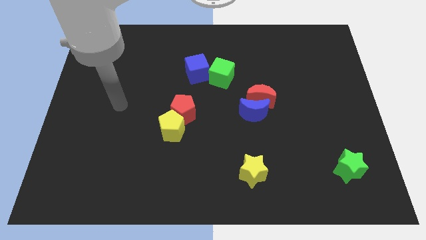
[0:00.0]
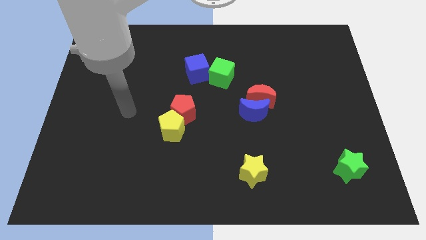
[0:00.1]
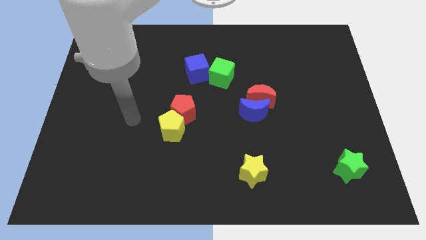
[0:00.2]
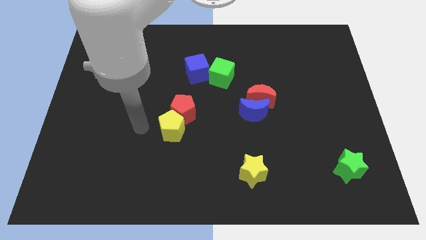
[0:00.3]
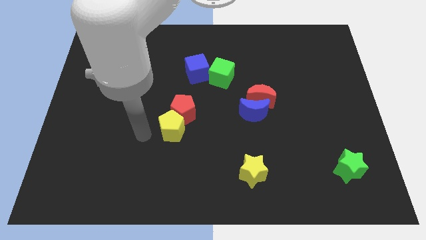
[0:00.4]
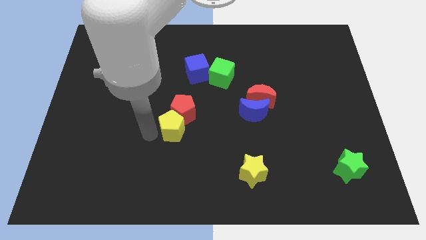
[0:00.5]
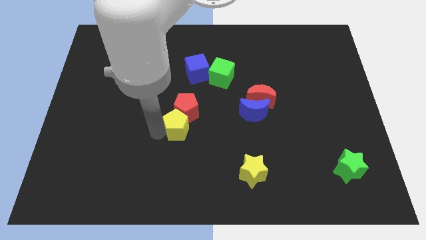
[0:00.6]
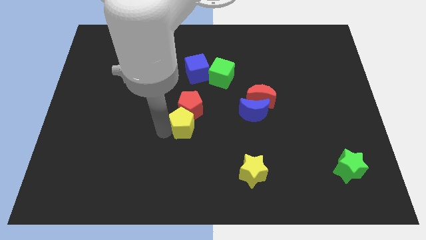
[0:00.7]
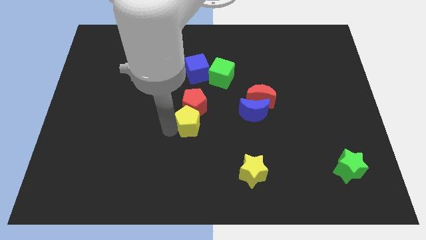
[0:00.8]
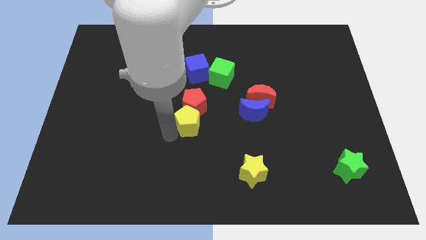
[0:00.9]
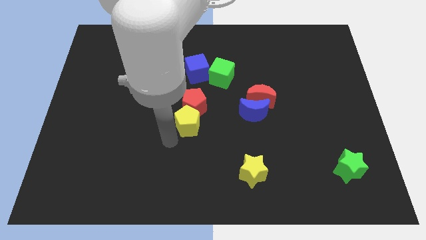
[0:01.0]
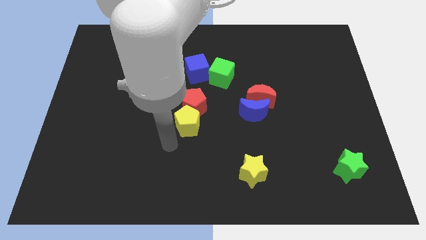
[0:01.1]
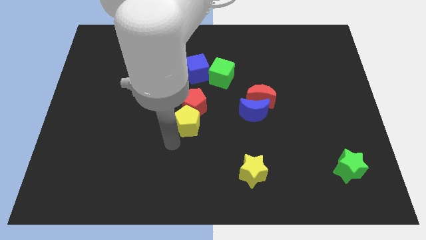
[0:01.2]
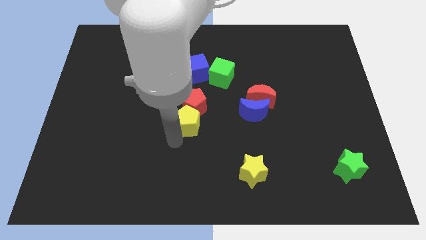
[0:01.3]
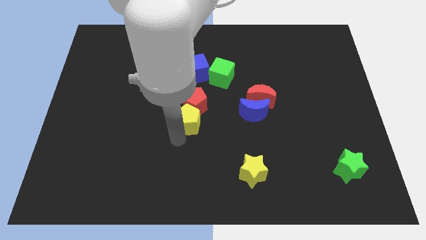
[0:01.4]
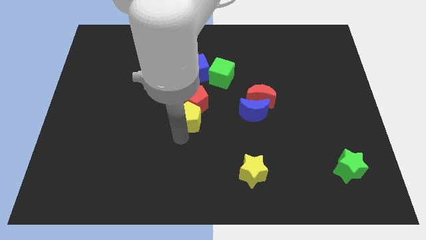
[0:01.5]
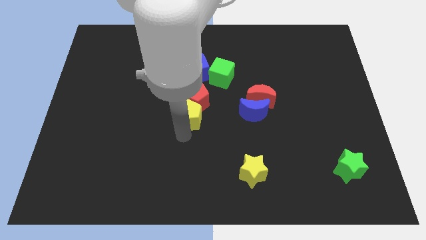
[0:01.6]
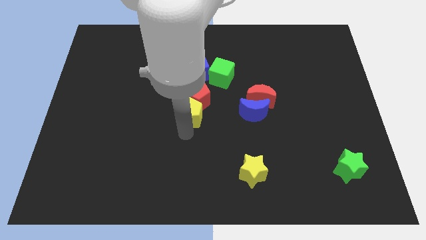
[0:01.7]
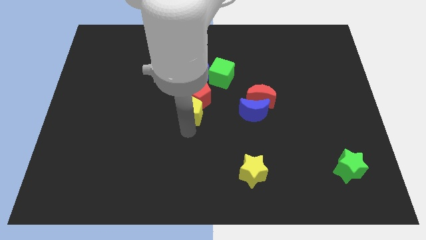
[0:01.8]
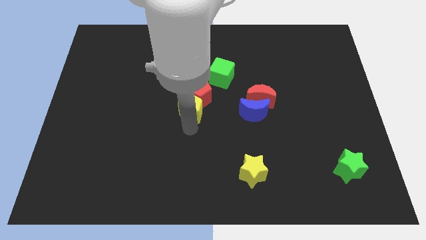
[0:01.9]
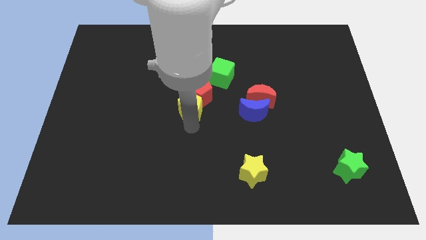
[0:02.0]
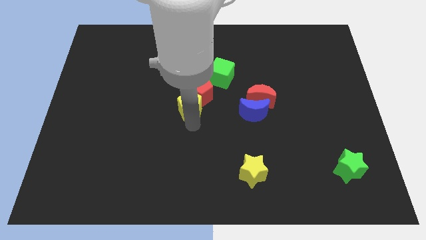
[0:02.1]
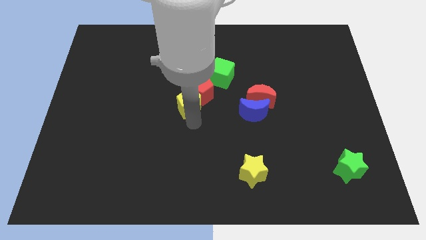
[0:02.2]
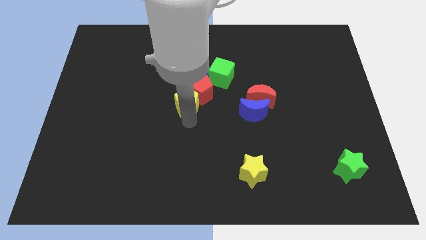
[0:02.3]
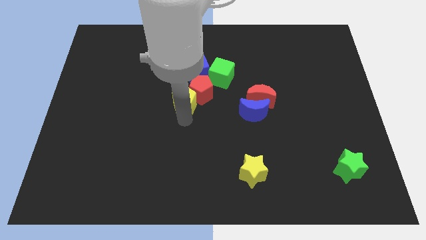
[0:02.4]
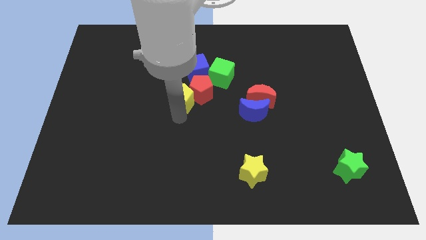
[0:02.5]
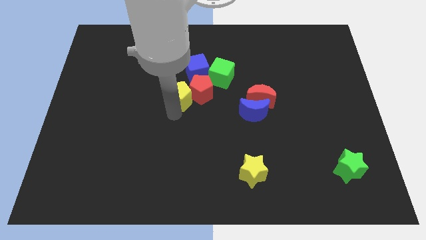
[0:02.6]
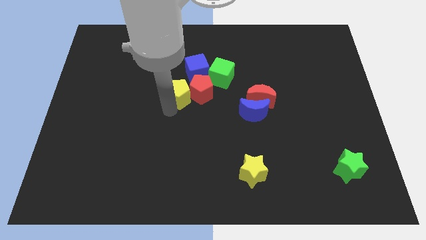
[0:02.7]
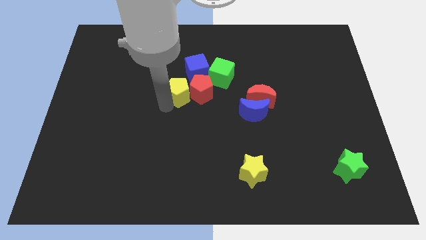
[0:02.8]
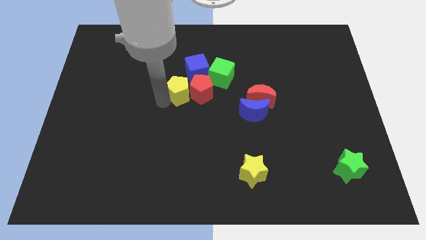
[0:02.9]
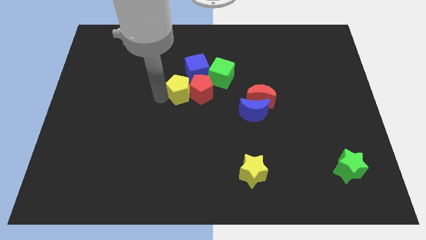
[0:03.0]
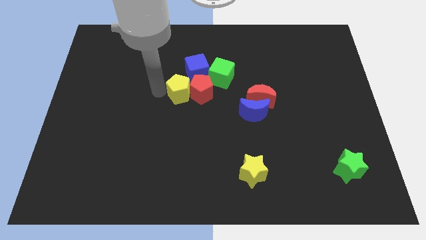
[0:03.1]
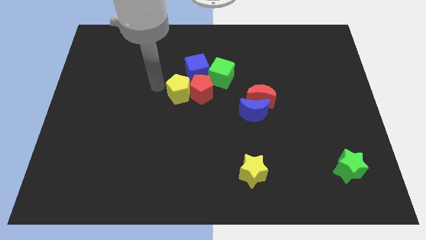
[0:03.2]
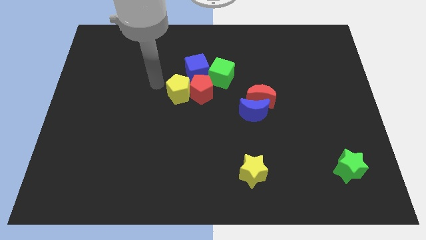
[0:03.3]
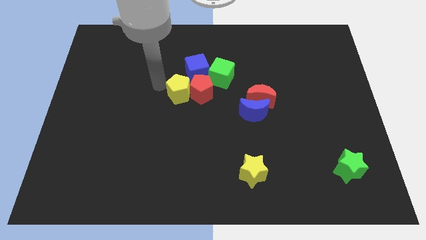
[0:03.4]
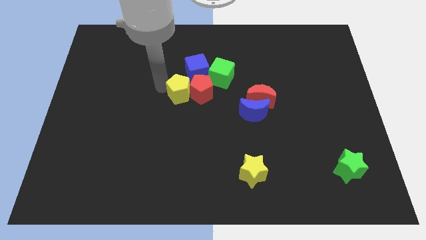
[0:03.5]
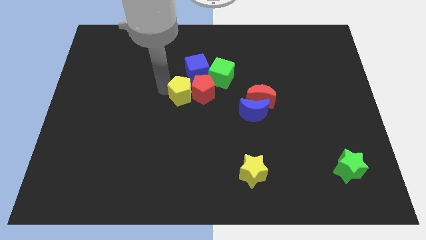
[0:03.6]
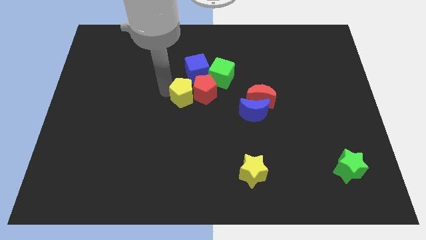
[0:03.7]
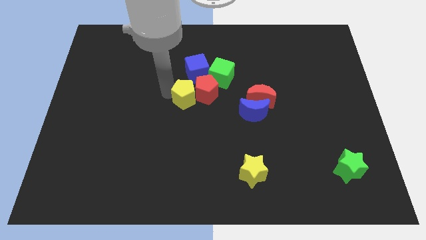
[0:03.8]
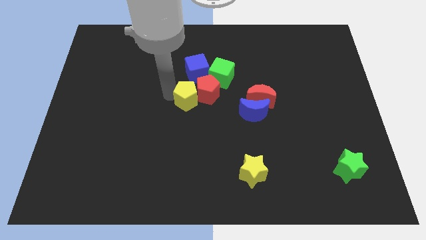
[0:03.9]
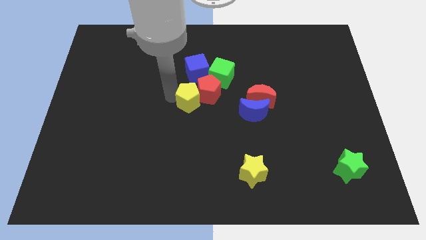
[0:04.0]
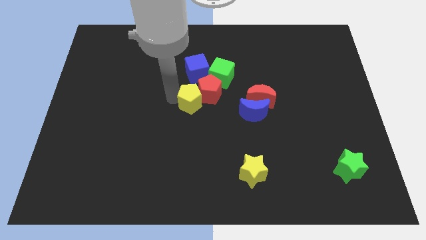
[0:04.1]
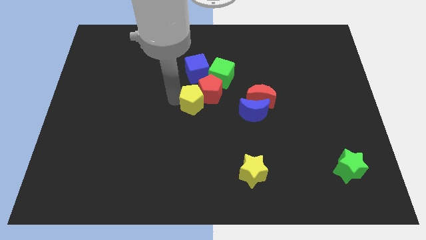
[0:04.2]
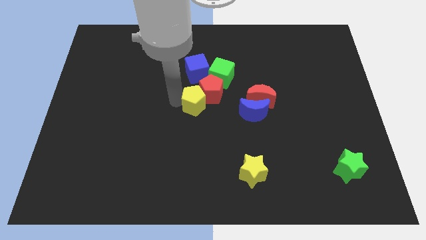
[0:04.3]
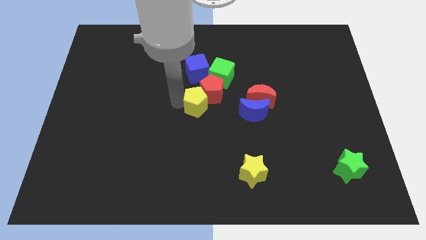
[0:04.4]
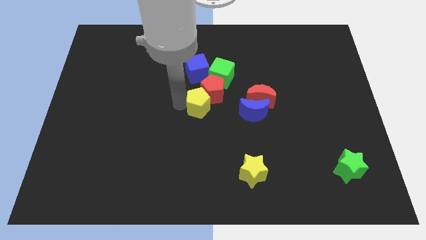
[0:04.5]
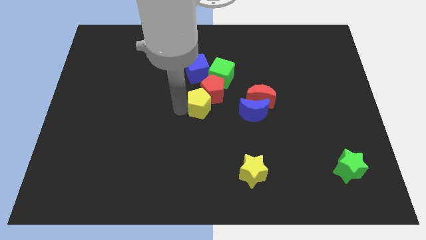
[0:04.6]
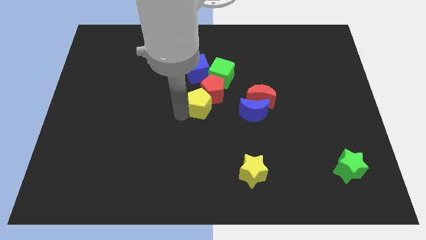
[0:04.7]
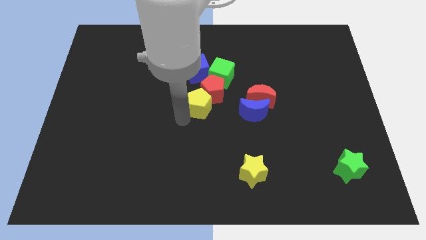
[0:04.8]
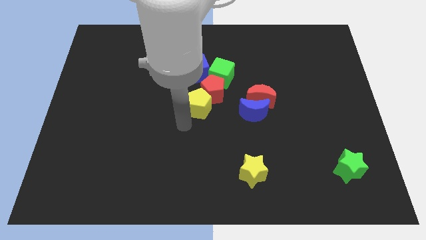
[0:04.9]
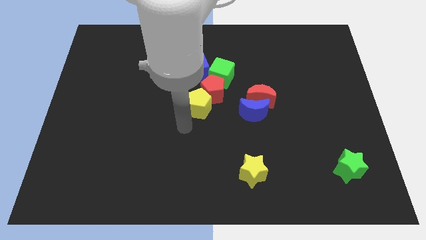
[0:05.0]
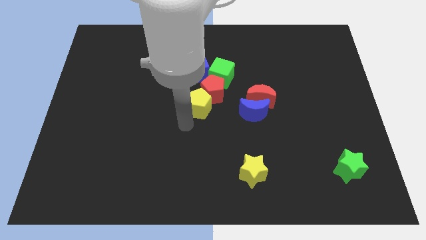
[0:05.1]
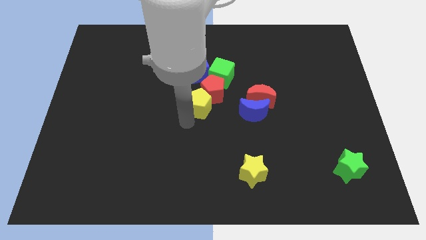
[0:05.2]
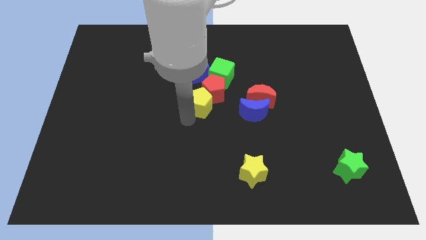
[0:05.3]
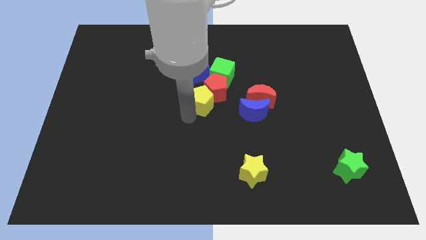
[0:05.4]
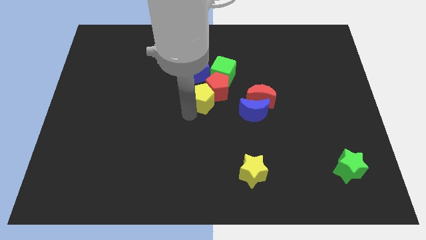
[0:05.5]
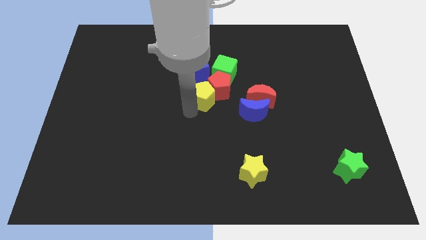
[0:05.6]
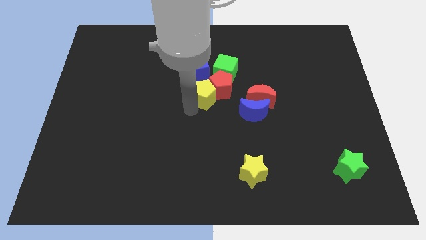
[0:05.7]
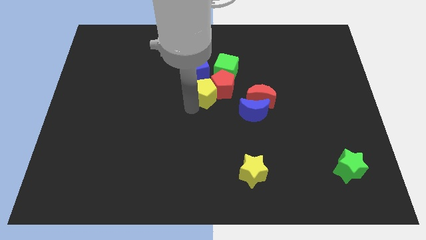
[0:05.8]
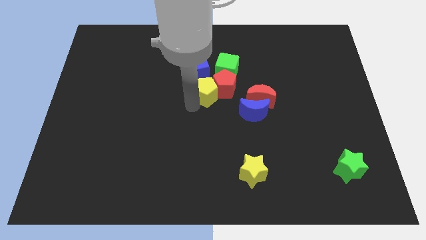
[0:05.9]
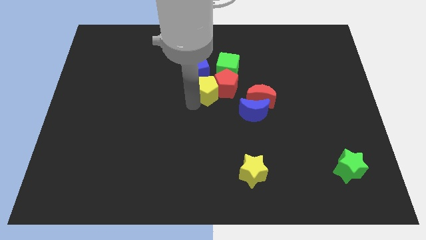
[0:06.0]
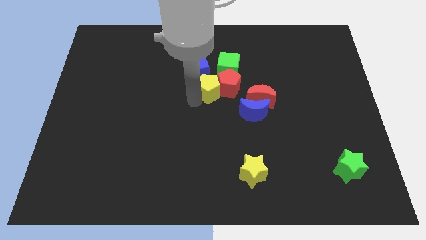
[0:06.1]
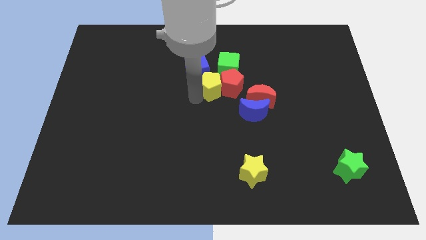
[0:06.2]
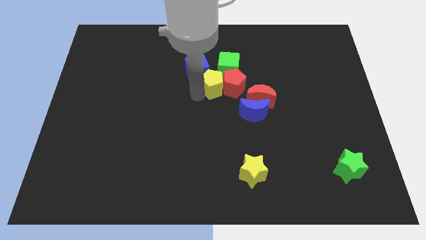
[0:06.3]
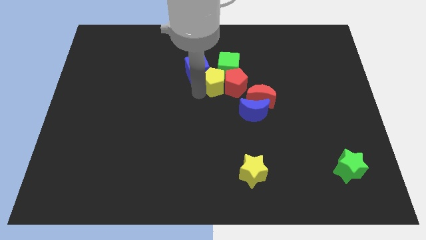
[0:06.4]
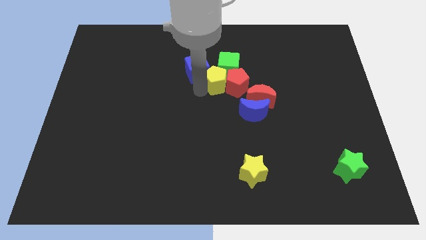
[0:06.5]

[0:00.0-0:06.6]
move the yellow pentagon next to the green cube
